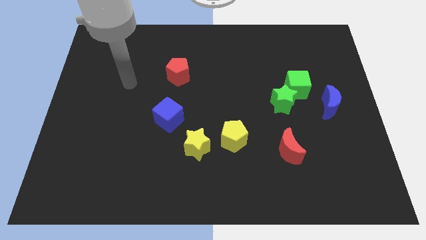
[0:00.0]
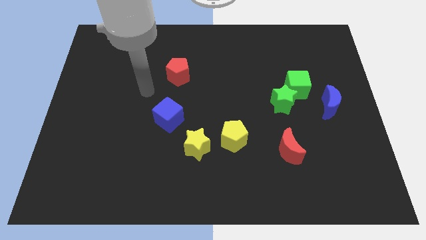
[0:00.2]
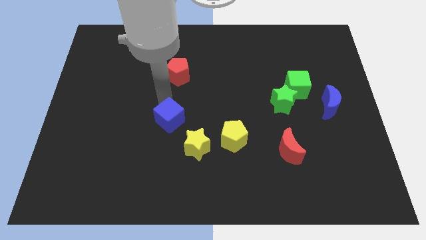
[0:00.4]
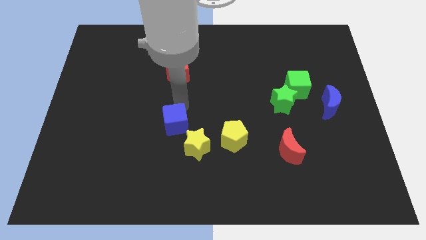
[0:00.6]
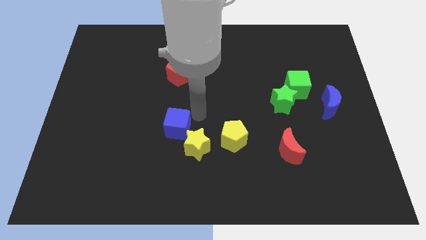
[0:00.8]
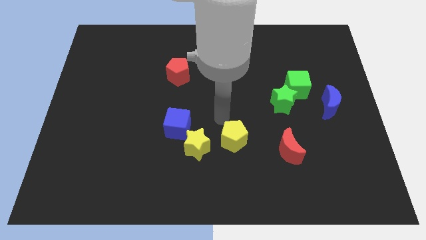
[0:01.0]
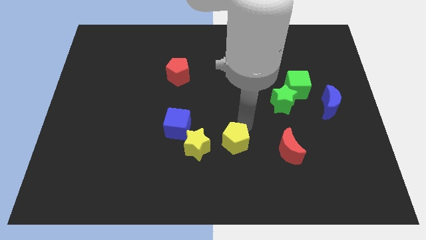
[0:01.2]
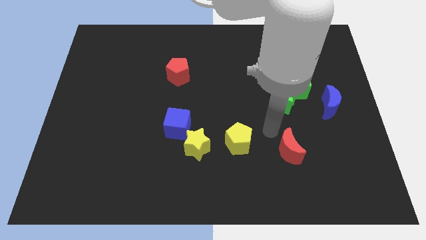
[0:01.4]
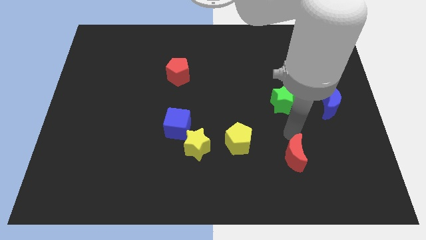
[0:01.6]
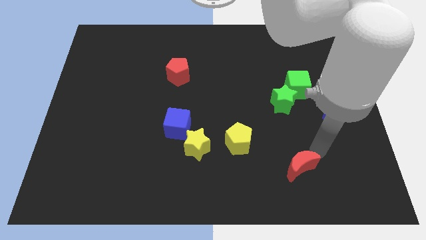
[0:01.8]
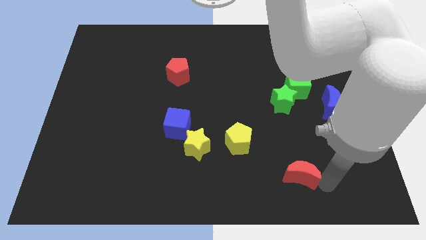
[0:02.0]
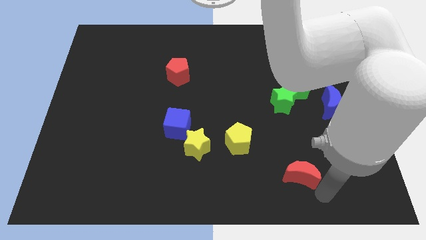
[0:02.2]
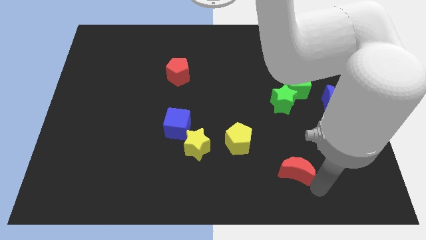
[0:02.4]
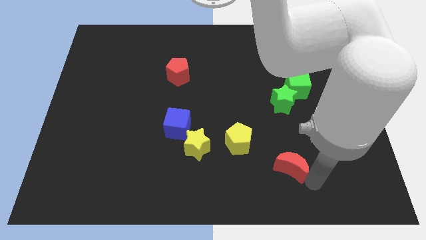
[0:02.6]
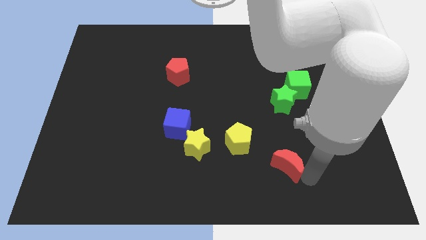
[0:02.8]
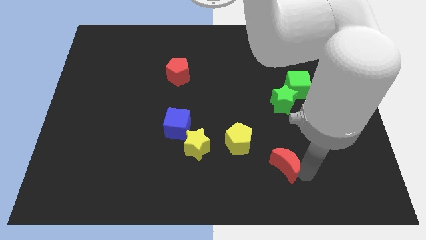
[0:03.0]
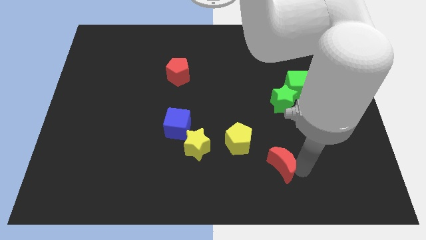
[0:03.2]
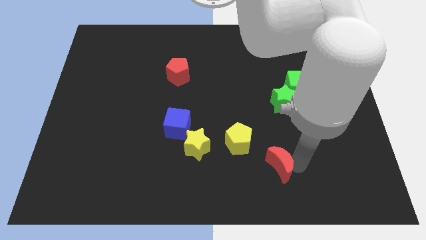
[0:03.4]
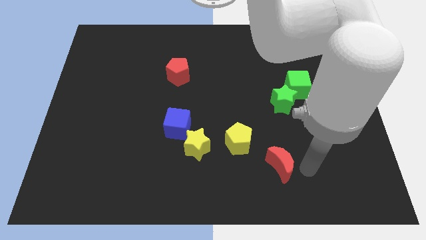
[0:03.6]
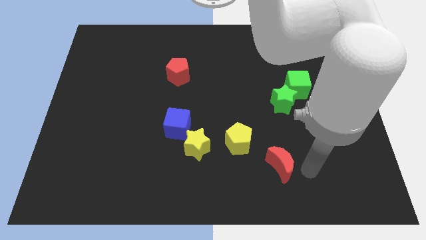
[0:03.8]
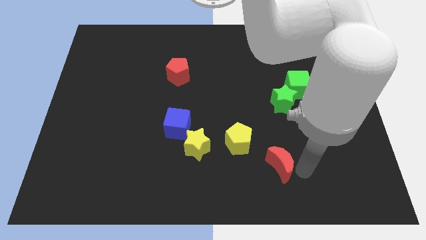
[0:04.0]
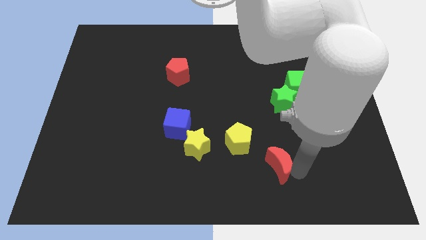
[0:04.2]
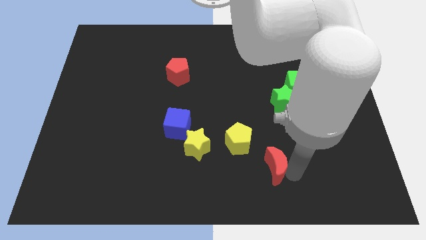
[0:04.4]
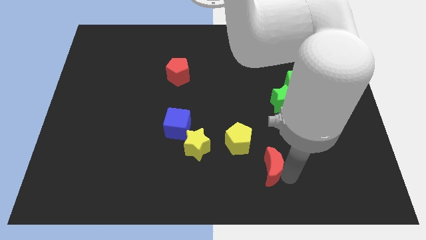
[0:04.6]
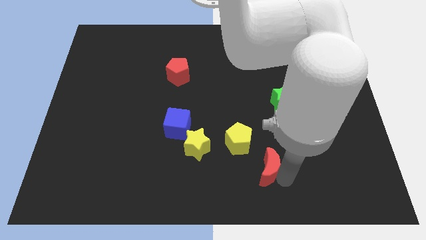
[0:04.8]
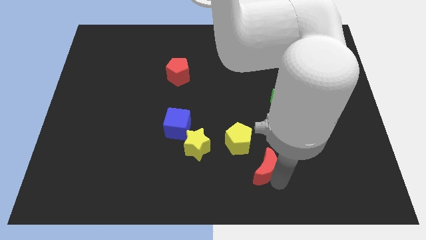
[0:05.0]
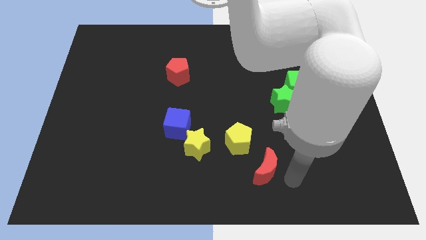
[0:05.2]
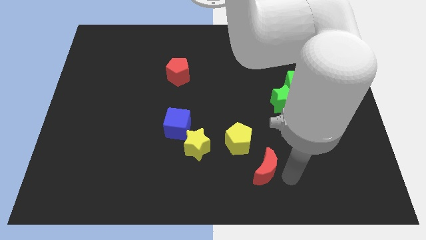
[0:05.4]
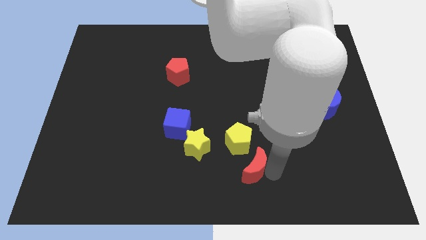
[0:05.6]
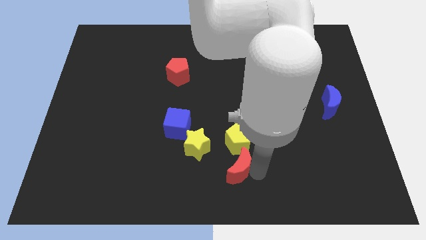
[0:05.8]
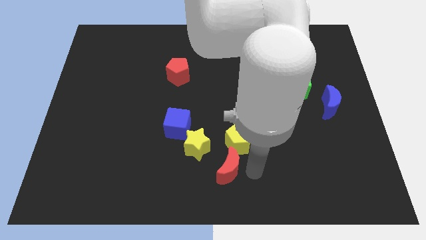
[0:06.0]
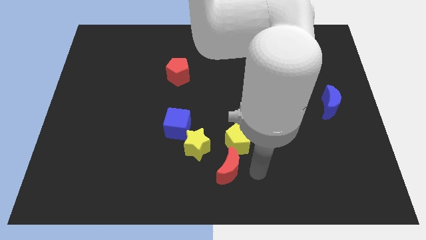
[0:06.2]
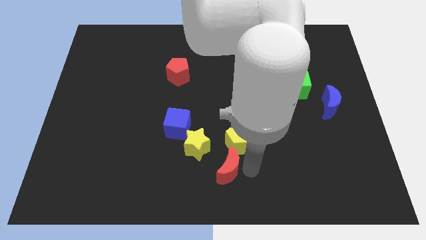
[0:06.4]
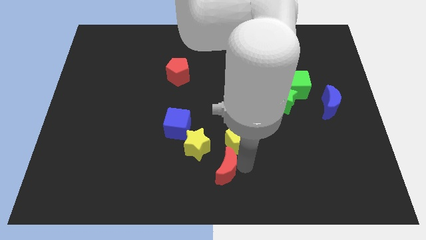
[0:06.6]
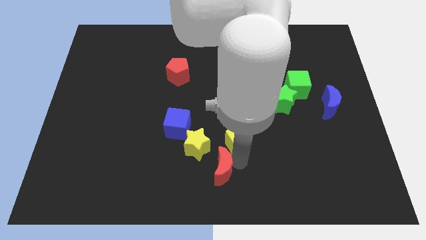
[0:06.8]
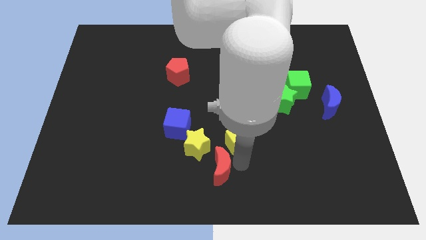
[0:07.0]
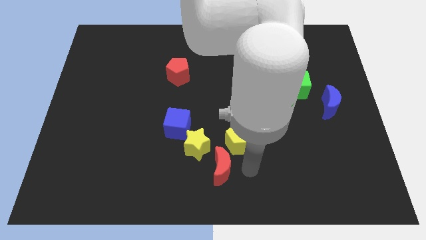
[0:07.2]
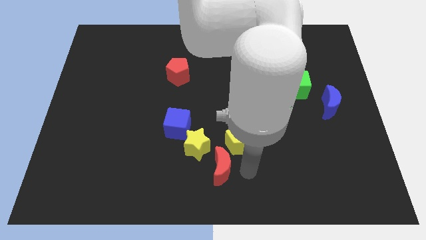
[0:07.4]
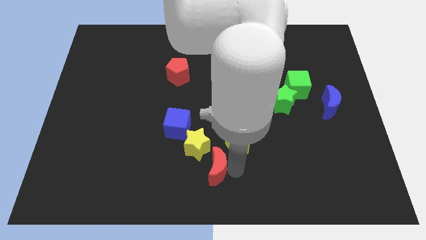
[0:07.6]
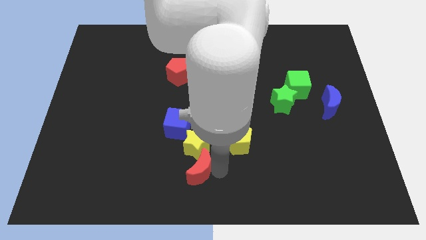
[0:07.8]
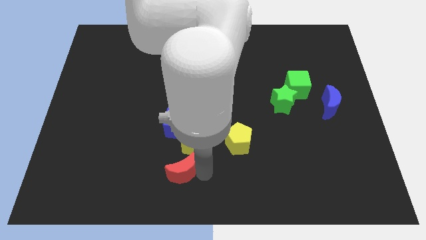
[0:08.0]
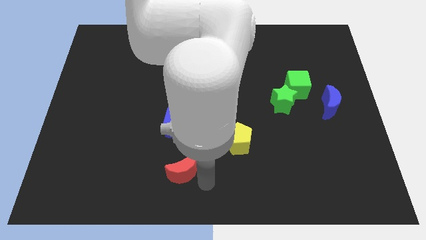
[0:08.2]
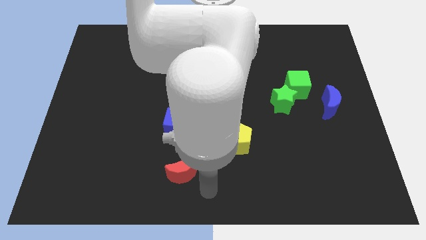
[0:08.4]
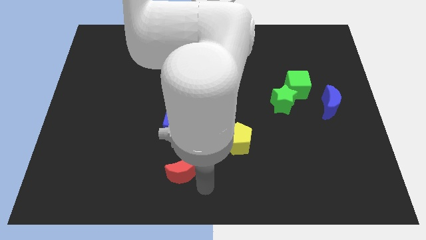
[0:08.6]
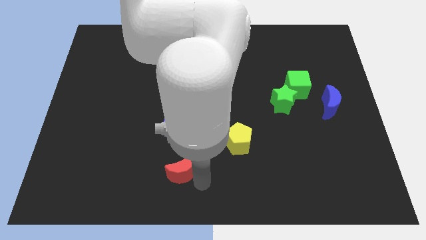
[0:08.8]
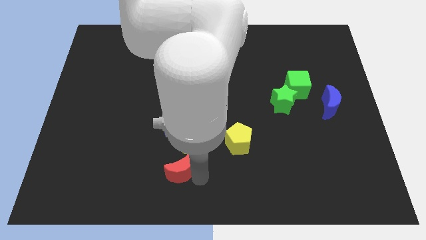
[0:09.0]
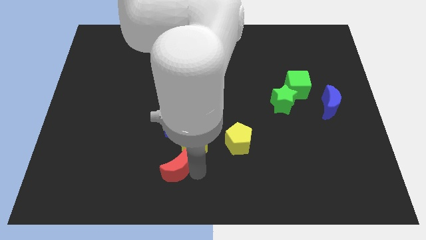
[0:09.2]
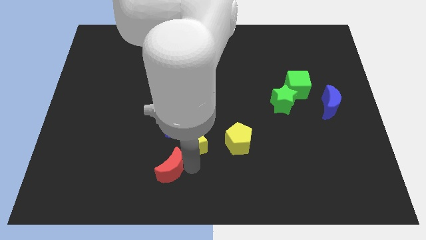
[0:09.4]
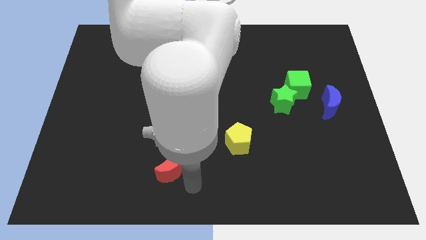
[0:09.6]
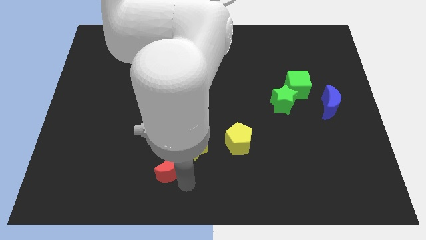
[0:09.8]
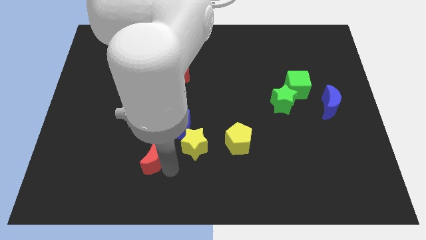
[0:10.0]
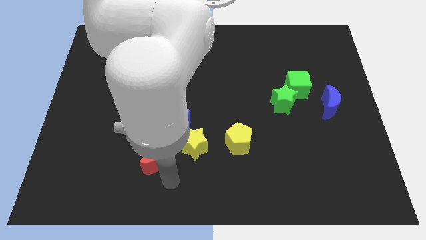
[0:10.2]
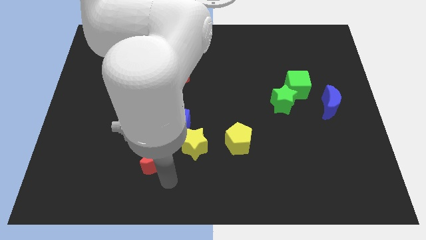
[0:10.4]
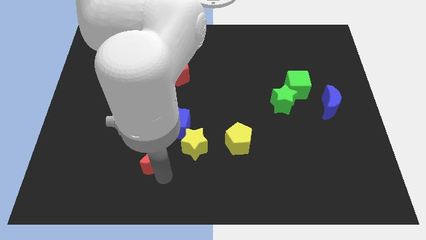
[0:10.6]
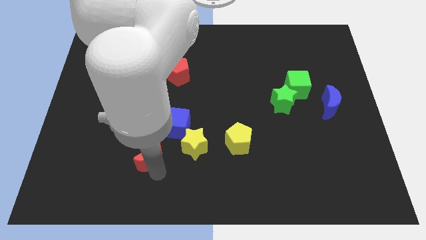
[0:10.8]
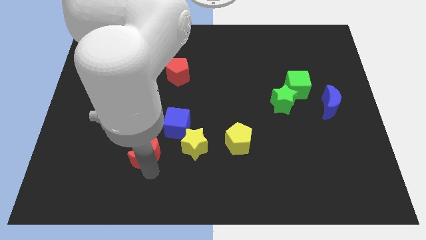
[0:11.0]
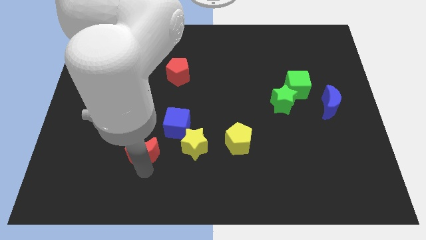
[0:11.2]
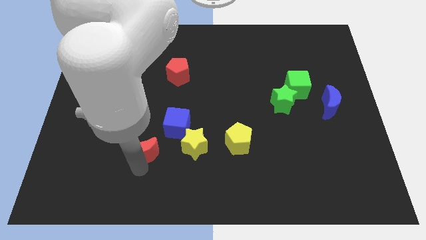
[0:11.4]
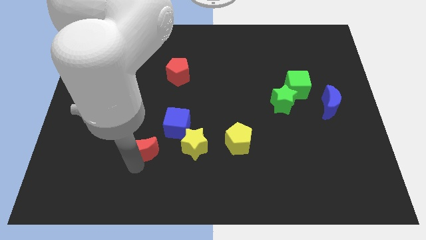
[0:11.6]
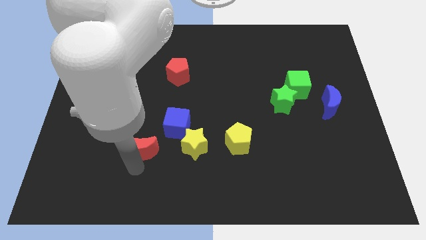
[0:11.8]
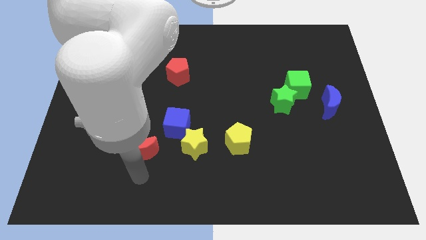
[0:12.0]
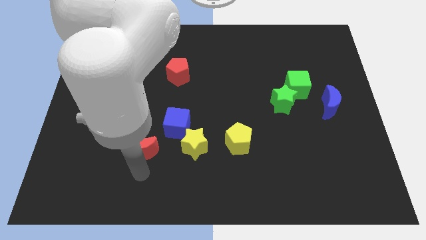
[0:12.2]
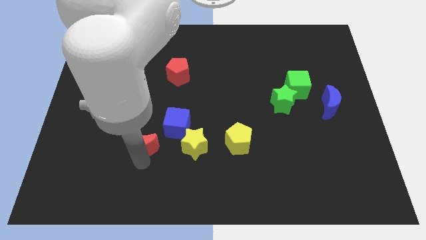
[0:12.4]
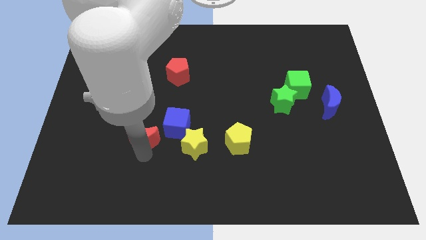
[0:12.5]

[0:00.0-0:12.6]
put the red moon to the left of the blue cube
